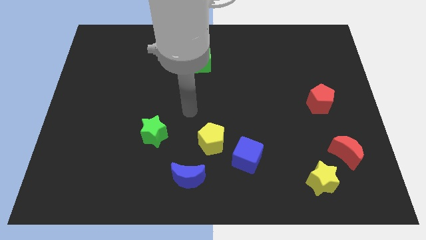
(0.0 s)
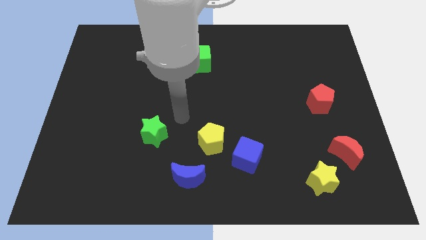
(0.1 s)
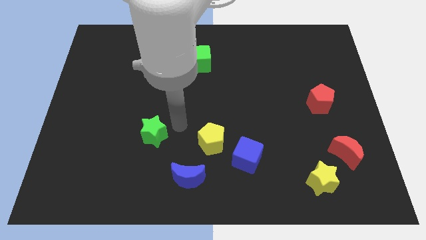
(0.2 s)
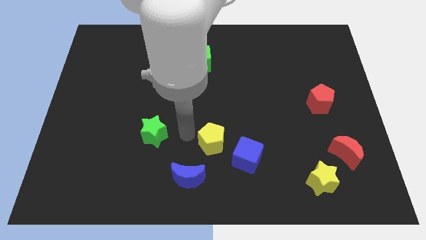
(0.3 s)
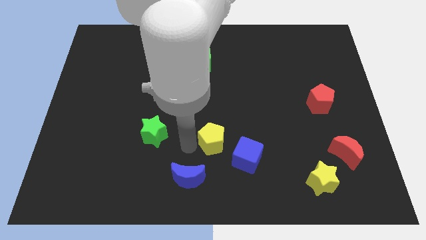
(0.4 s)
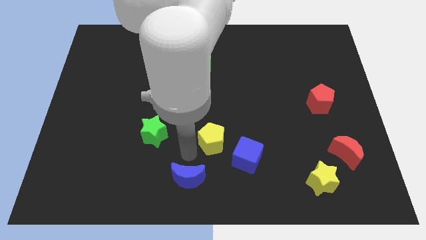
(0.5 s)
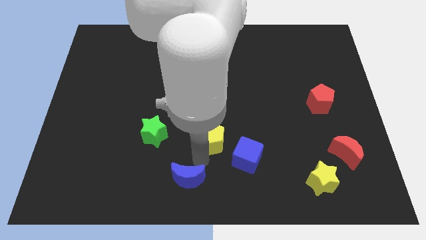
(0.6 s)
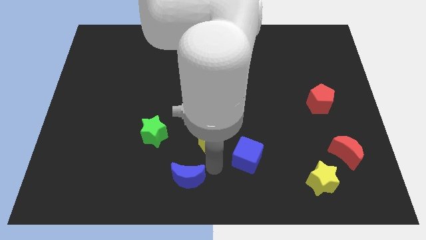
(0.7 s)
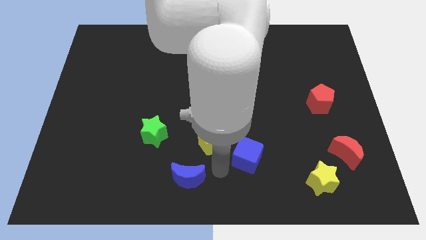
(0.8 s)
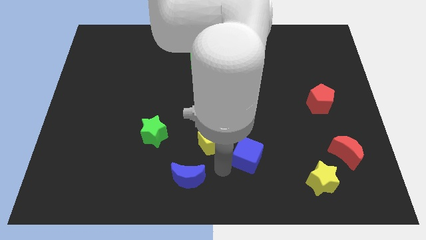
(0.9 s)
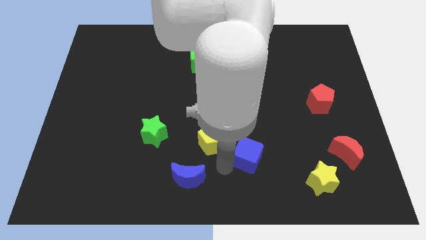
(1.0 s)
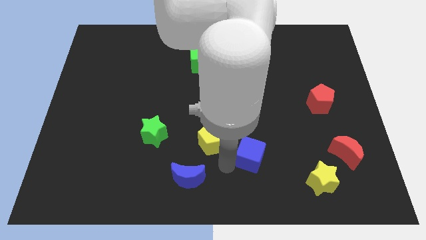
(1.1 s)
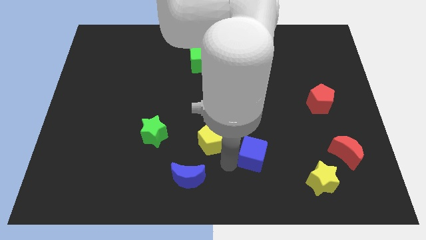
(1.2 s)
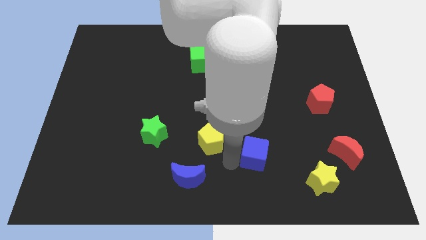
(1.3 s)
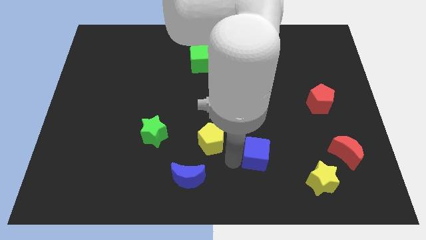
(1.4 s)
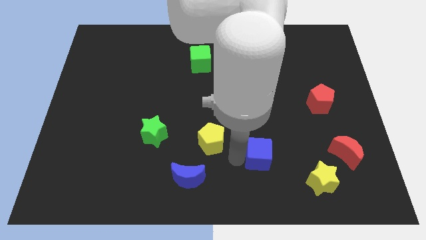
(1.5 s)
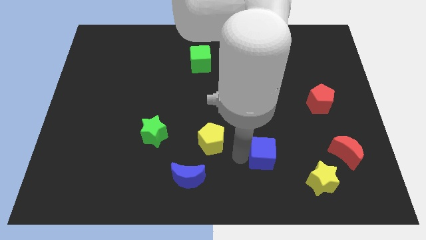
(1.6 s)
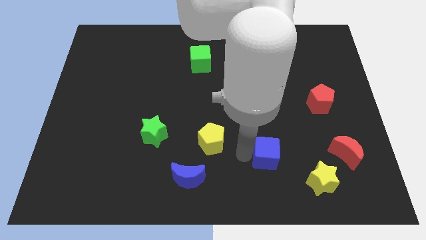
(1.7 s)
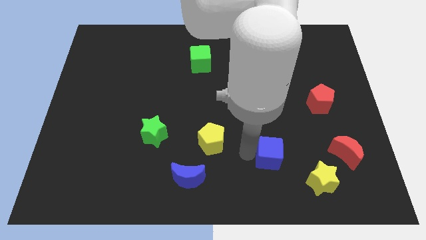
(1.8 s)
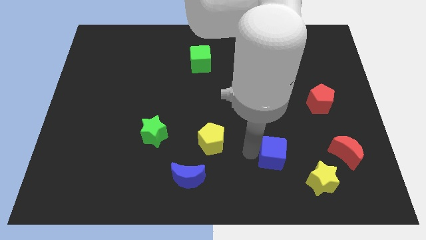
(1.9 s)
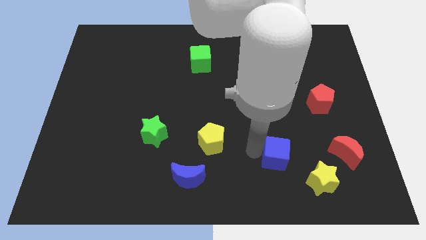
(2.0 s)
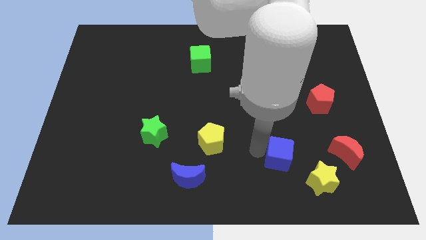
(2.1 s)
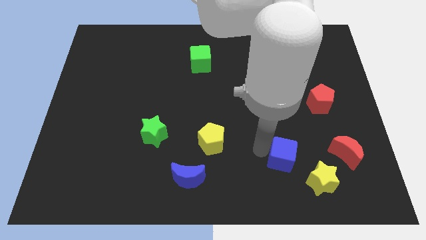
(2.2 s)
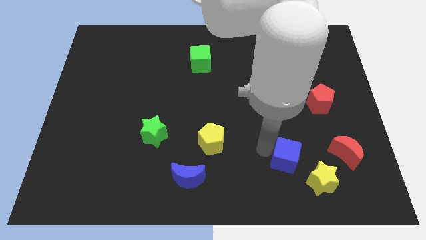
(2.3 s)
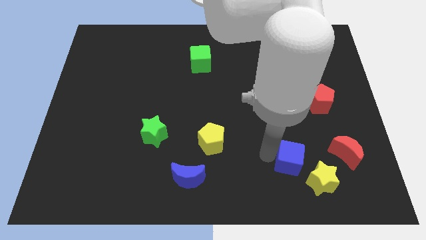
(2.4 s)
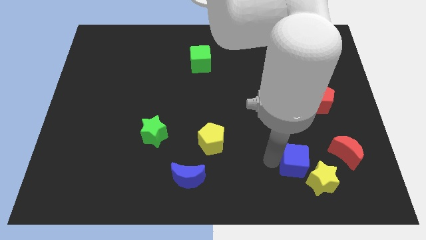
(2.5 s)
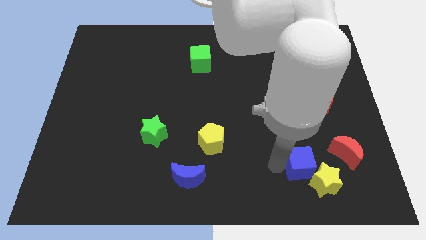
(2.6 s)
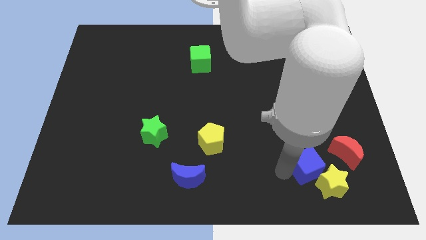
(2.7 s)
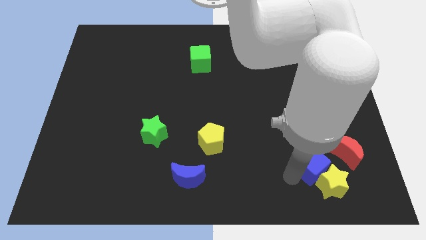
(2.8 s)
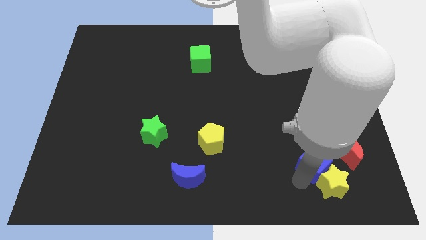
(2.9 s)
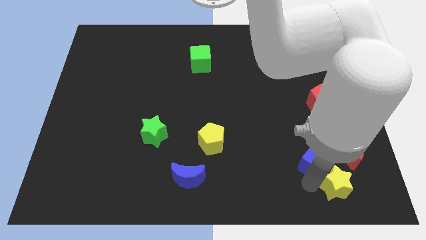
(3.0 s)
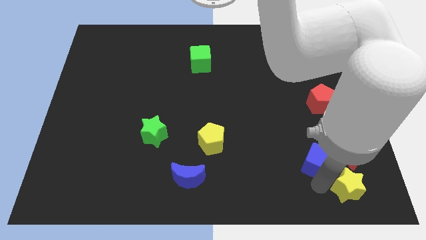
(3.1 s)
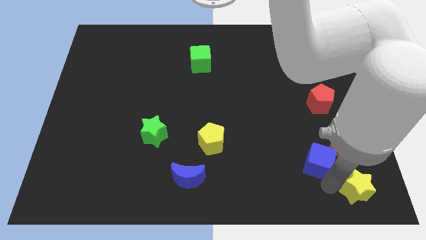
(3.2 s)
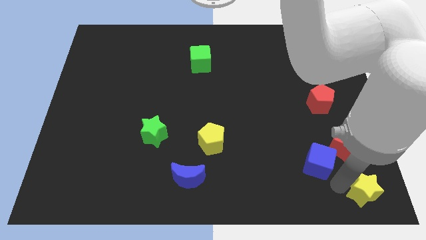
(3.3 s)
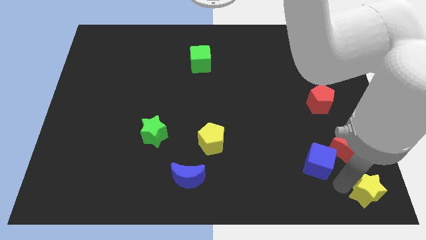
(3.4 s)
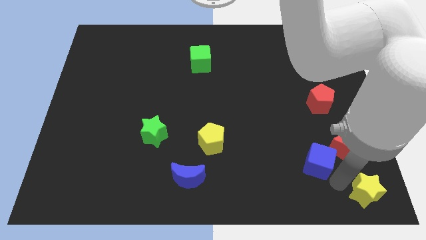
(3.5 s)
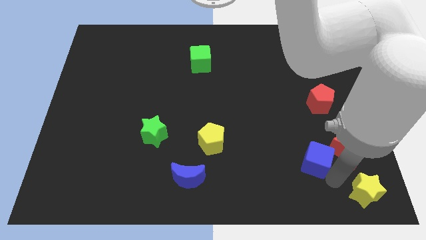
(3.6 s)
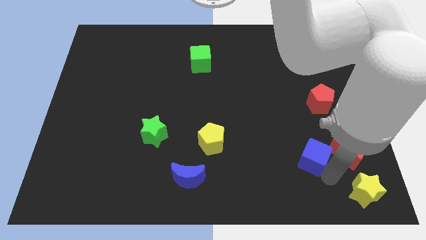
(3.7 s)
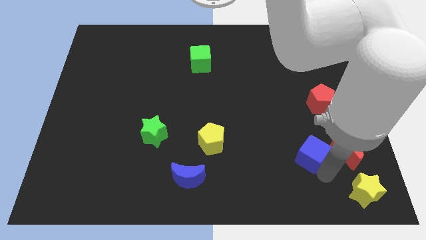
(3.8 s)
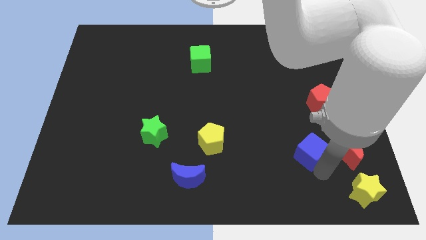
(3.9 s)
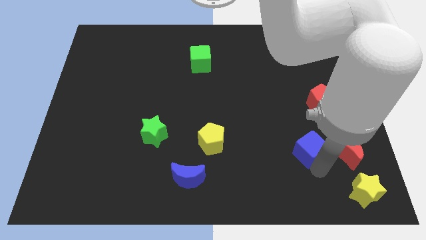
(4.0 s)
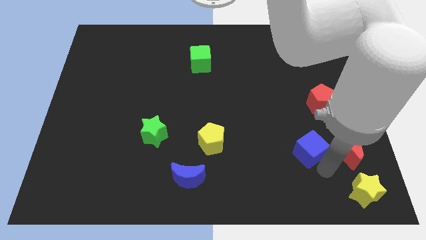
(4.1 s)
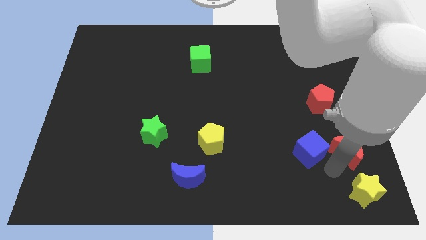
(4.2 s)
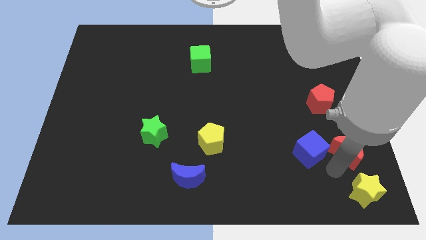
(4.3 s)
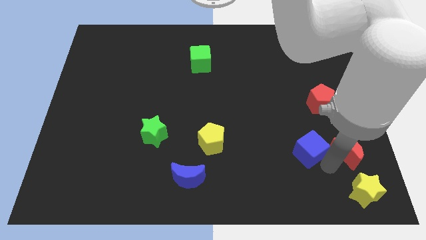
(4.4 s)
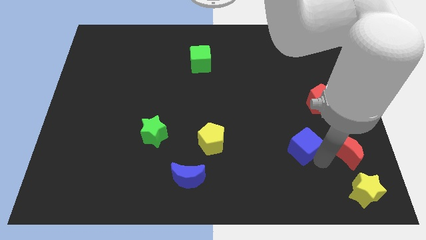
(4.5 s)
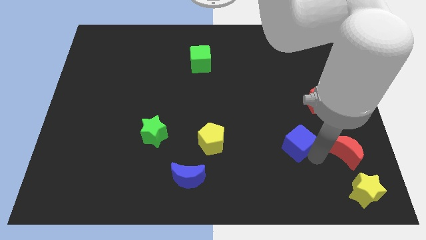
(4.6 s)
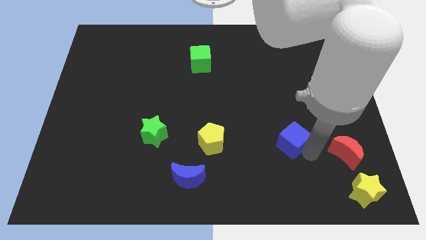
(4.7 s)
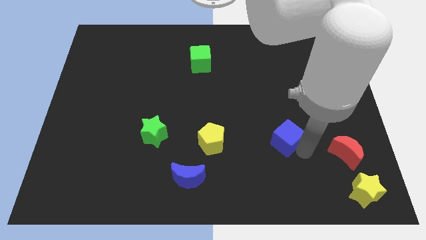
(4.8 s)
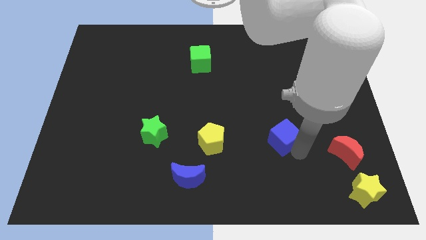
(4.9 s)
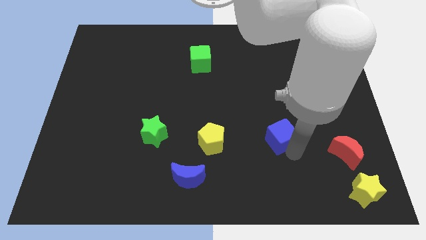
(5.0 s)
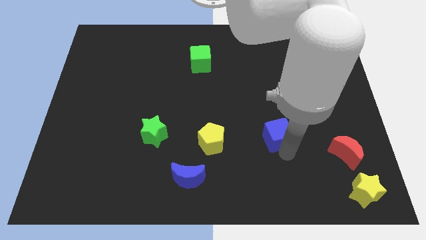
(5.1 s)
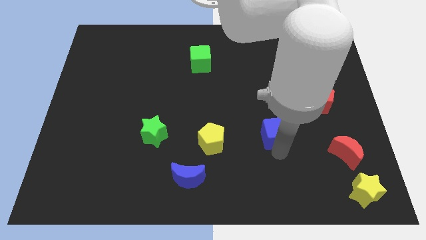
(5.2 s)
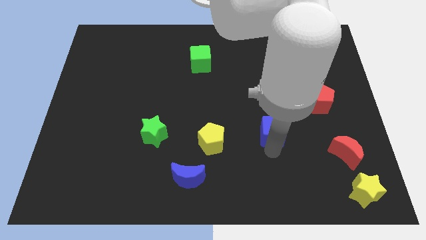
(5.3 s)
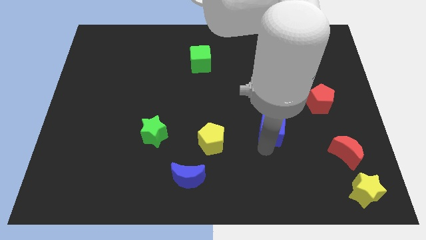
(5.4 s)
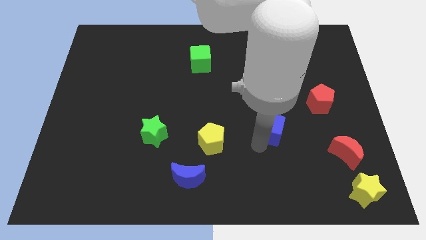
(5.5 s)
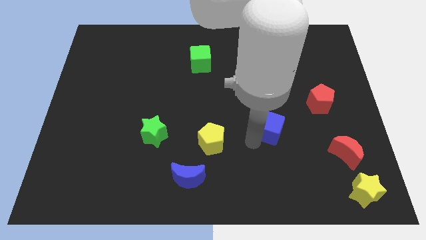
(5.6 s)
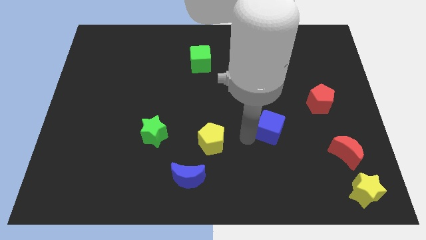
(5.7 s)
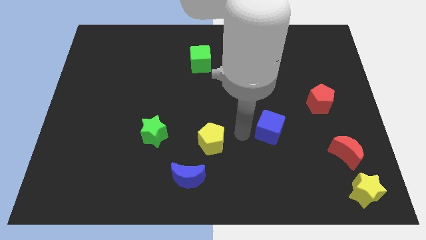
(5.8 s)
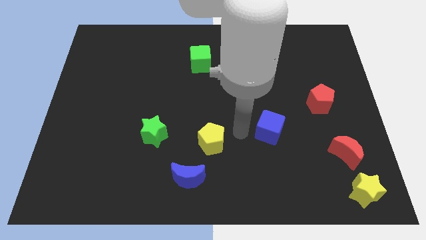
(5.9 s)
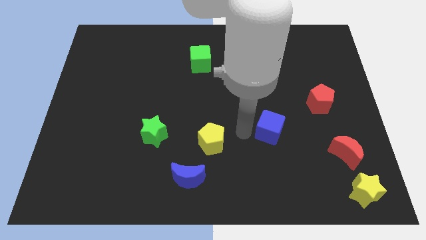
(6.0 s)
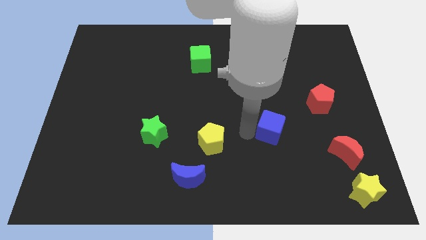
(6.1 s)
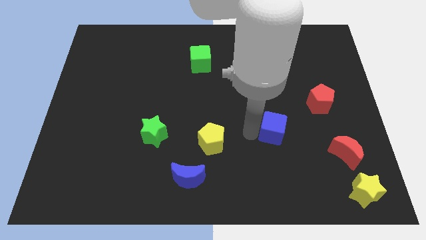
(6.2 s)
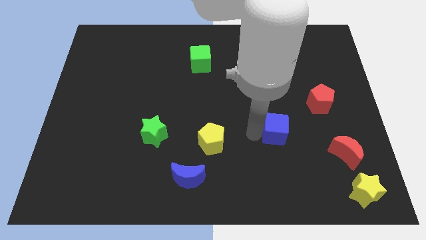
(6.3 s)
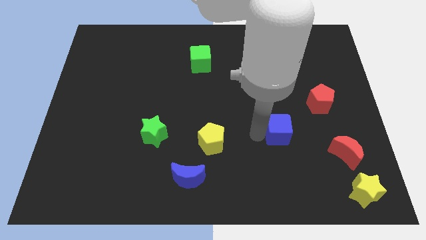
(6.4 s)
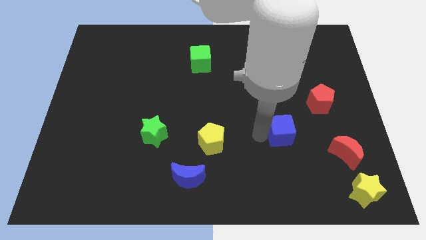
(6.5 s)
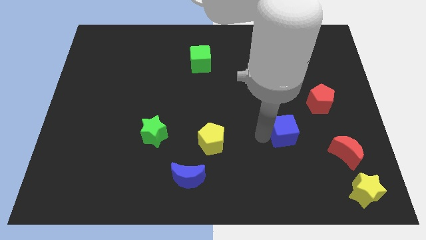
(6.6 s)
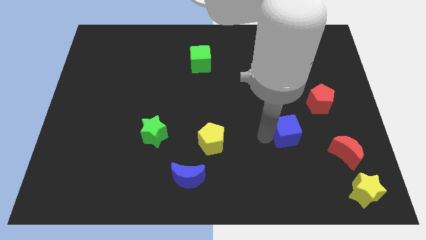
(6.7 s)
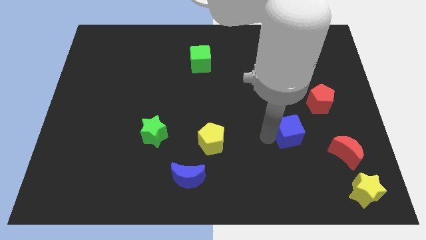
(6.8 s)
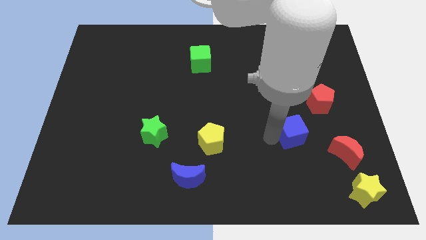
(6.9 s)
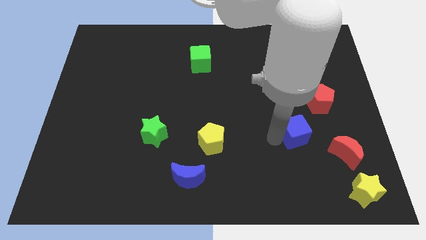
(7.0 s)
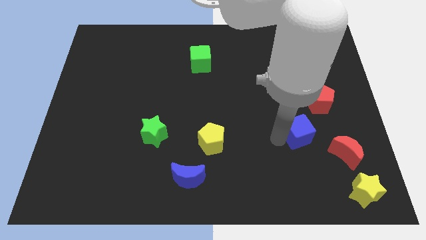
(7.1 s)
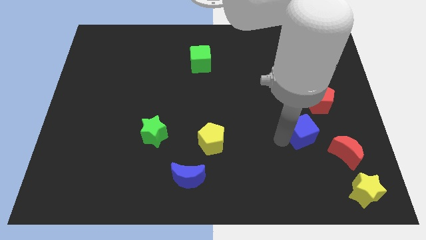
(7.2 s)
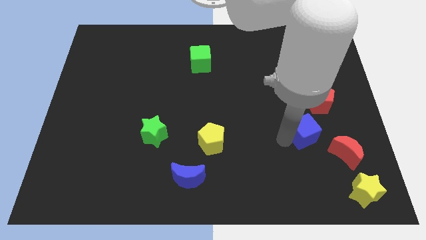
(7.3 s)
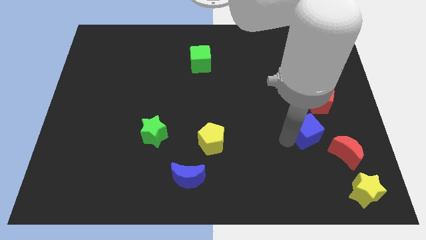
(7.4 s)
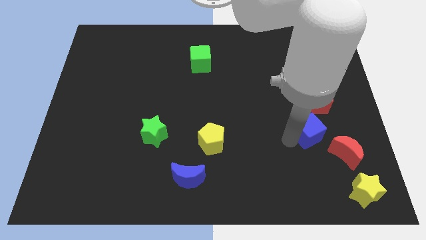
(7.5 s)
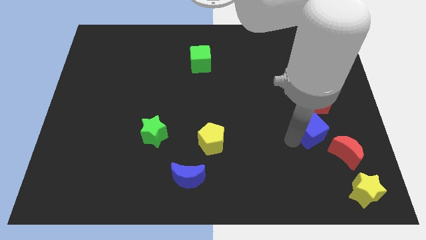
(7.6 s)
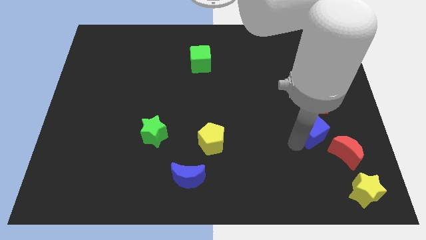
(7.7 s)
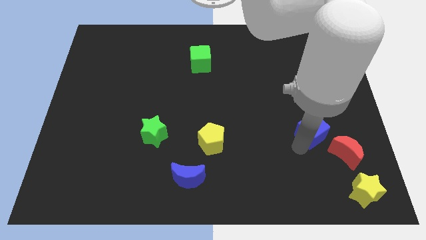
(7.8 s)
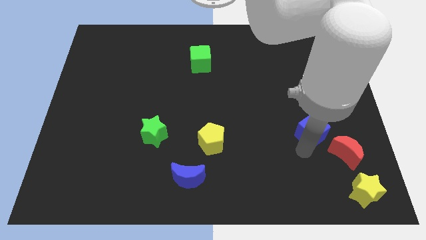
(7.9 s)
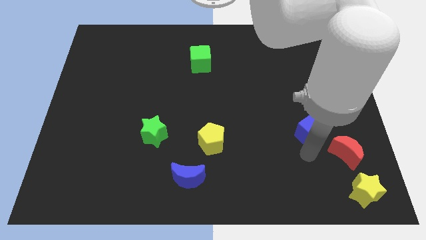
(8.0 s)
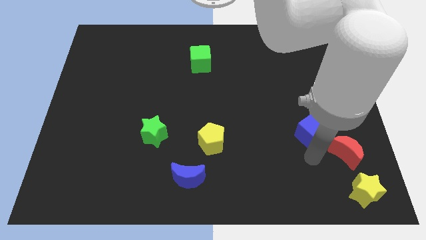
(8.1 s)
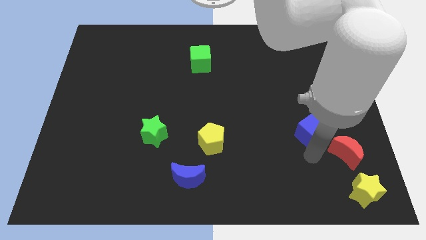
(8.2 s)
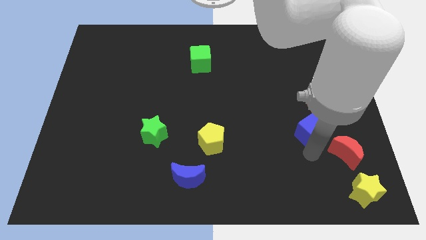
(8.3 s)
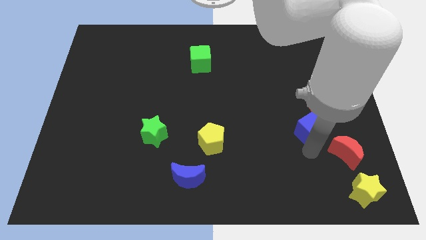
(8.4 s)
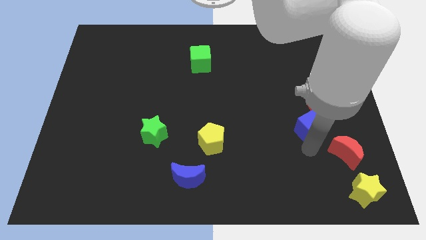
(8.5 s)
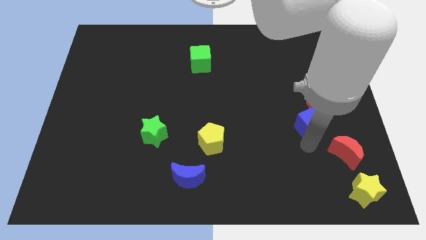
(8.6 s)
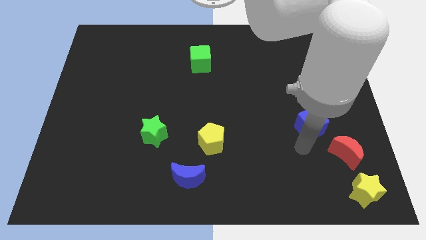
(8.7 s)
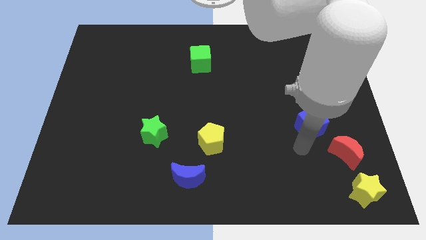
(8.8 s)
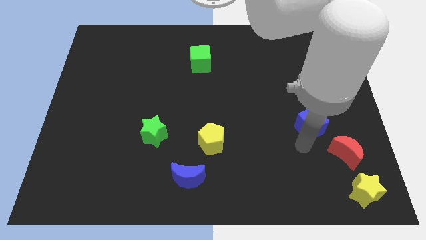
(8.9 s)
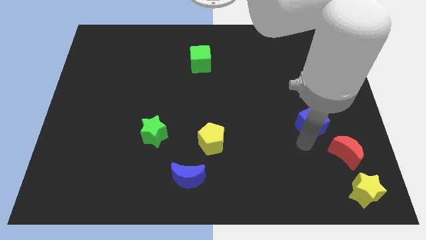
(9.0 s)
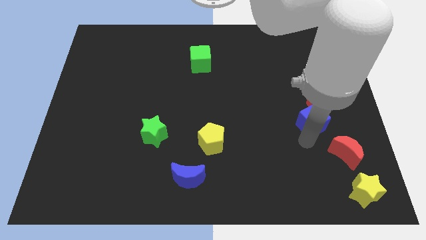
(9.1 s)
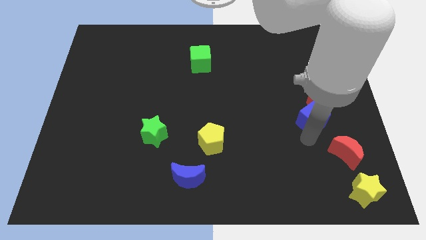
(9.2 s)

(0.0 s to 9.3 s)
move the blue cube close to the red pentagon
